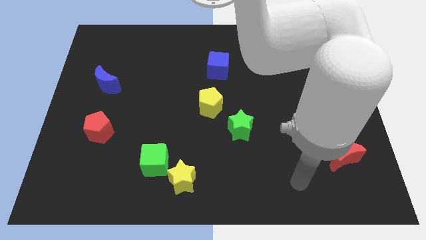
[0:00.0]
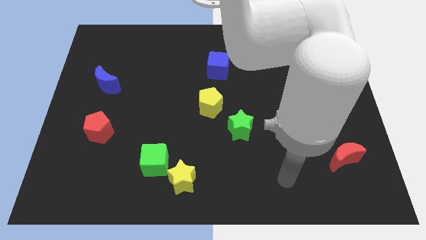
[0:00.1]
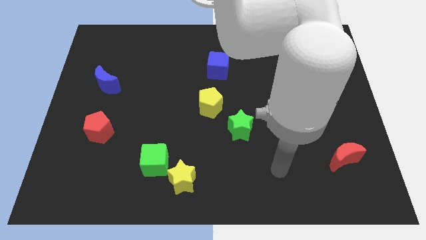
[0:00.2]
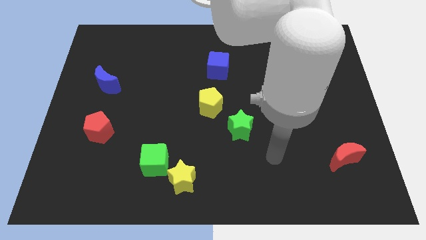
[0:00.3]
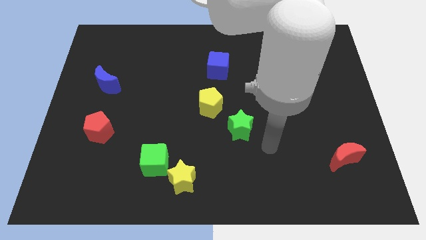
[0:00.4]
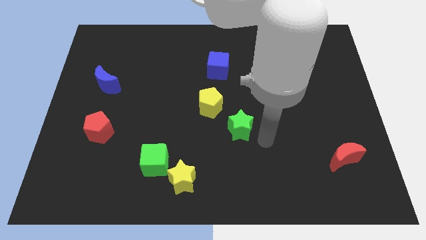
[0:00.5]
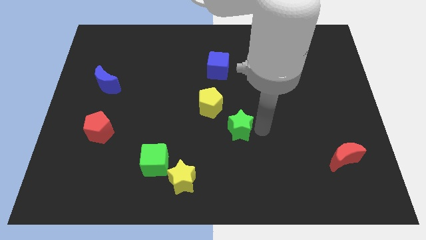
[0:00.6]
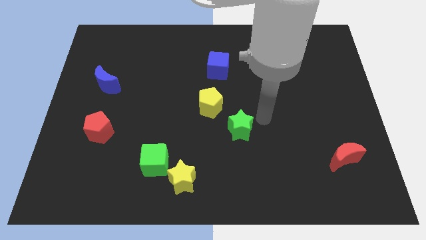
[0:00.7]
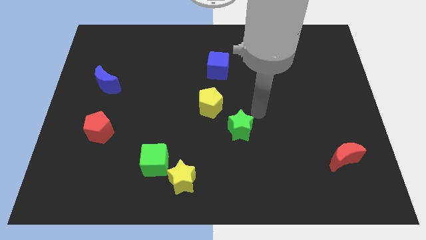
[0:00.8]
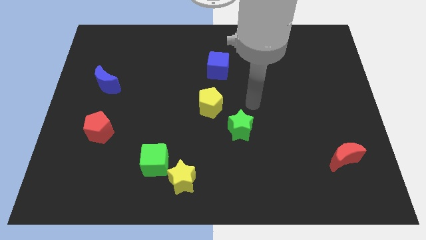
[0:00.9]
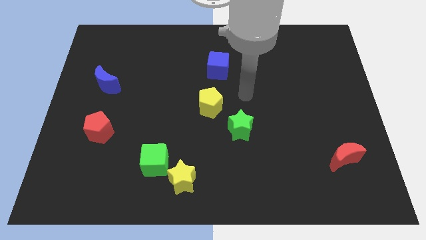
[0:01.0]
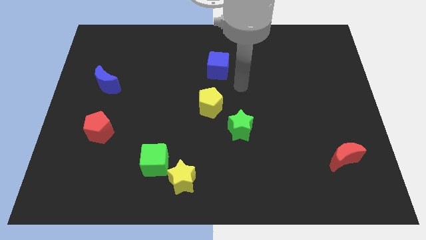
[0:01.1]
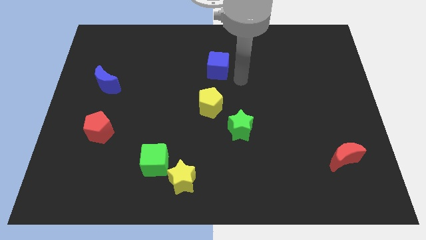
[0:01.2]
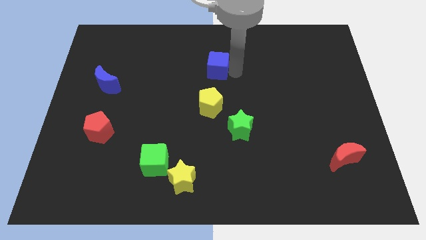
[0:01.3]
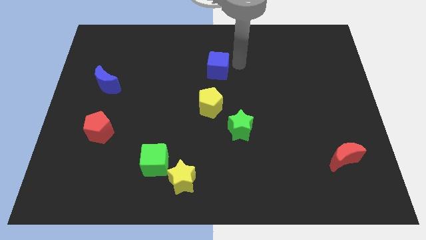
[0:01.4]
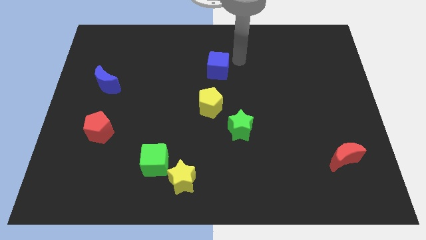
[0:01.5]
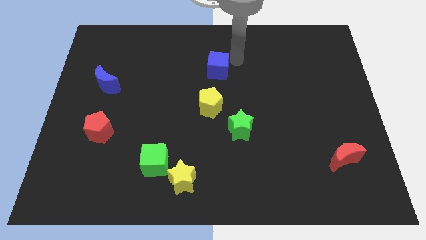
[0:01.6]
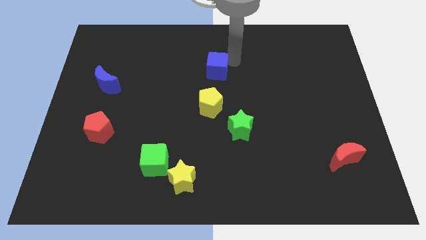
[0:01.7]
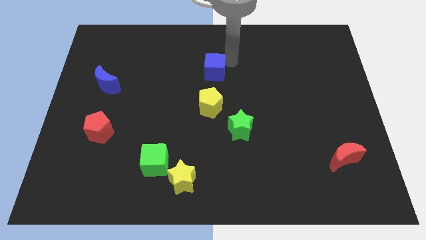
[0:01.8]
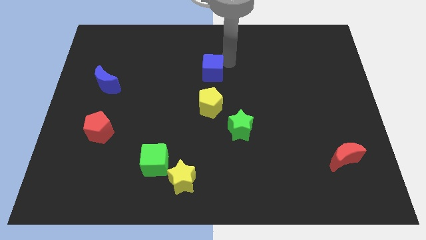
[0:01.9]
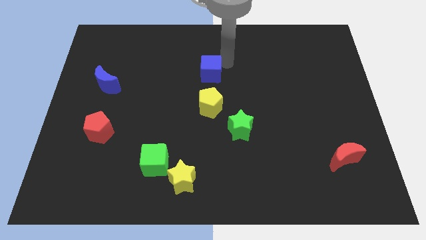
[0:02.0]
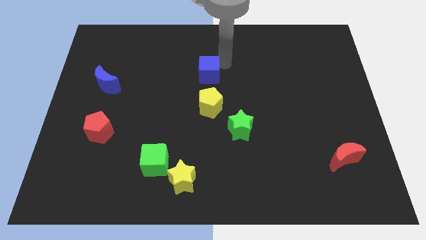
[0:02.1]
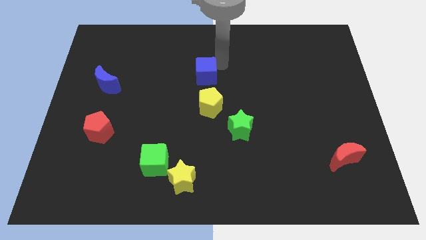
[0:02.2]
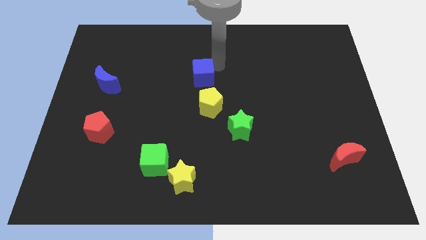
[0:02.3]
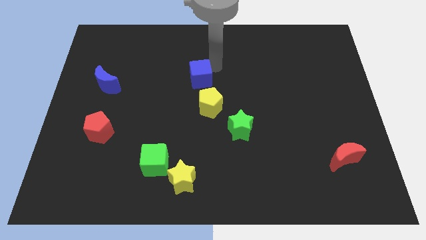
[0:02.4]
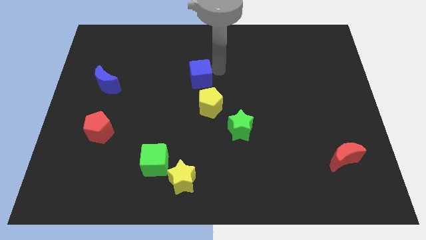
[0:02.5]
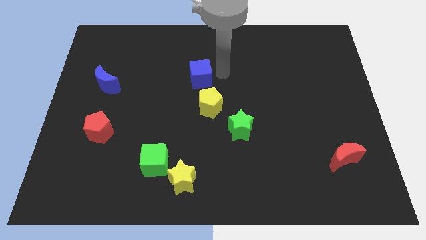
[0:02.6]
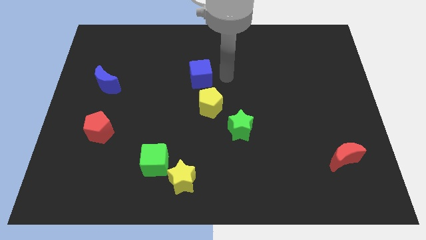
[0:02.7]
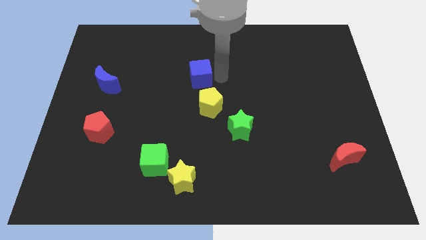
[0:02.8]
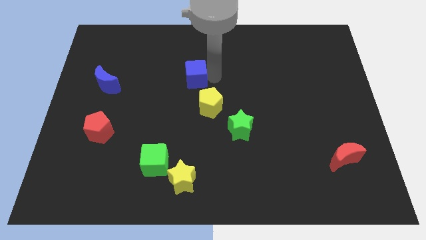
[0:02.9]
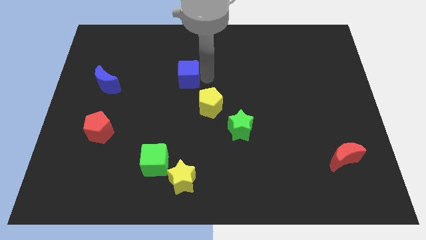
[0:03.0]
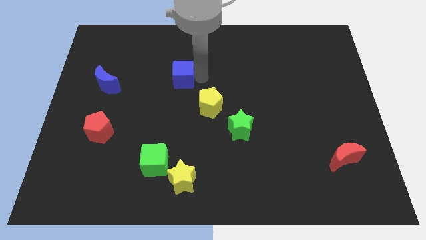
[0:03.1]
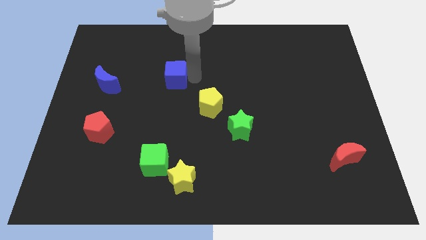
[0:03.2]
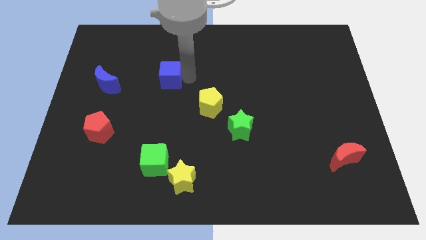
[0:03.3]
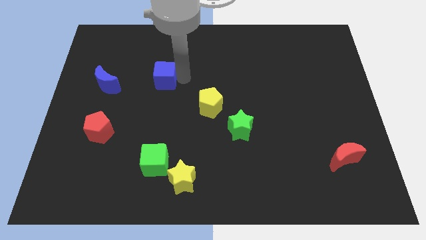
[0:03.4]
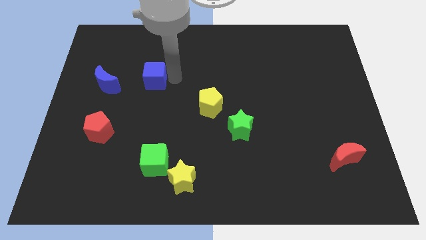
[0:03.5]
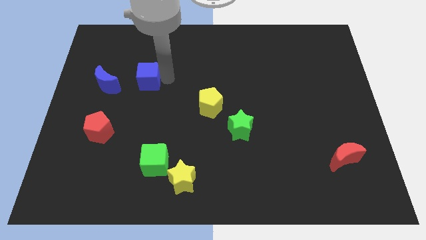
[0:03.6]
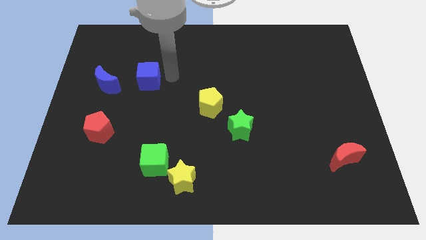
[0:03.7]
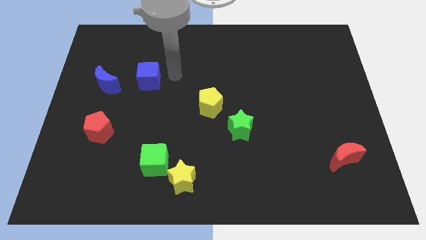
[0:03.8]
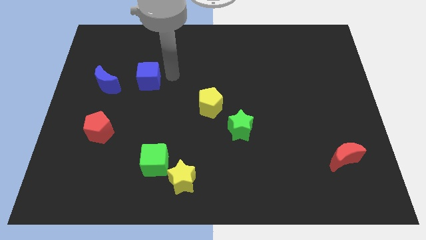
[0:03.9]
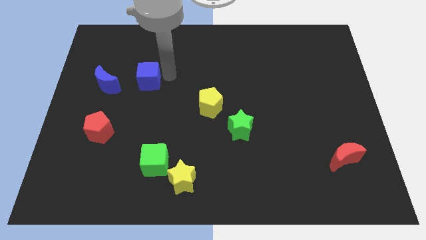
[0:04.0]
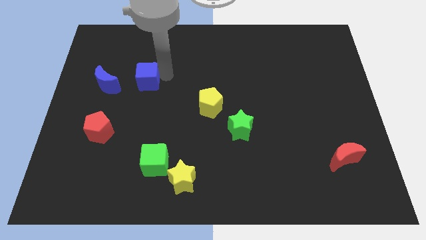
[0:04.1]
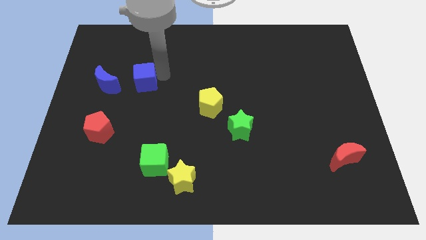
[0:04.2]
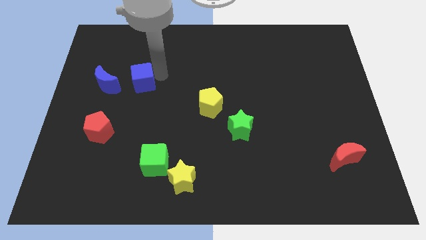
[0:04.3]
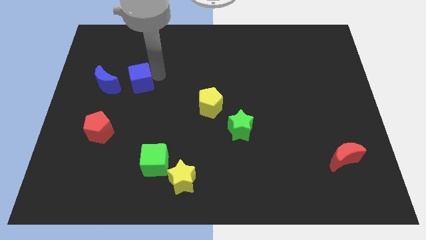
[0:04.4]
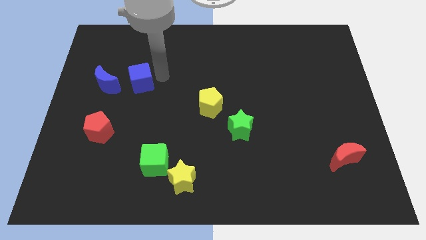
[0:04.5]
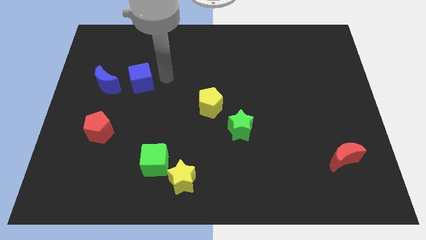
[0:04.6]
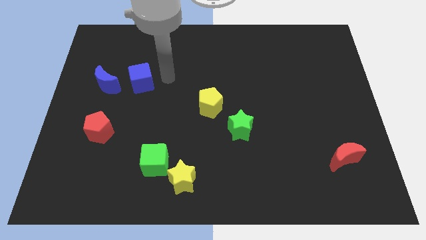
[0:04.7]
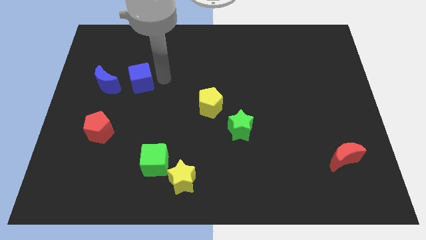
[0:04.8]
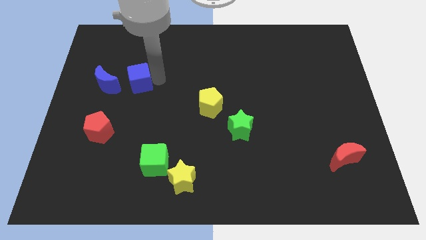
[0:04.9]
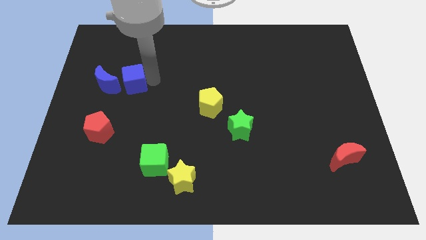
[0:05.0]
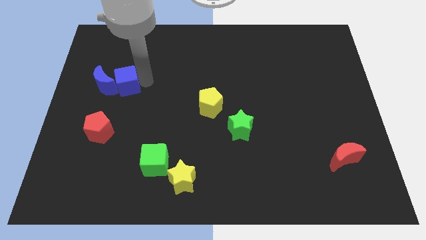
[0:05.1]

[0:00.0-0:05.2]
put the blue cube towards the blue moon

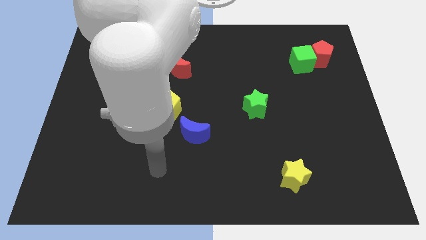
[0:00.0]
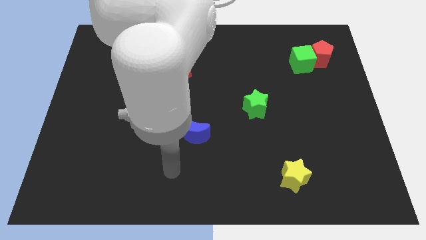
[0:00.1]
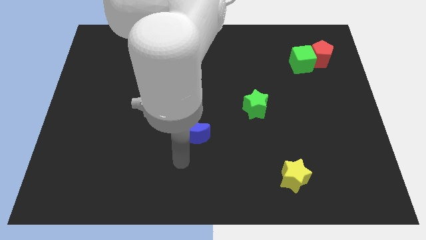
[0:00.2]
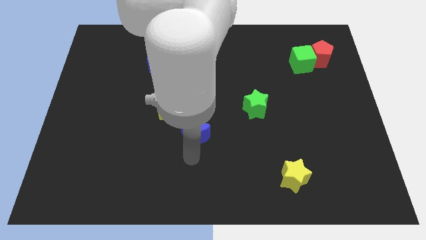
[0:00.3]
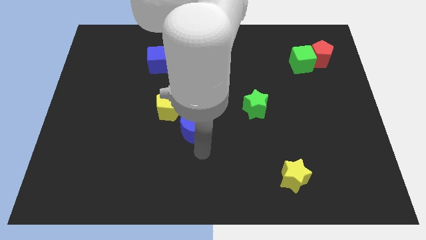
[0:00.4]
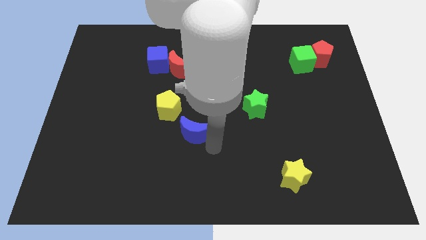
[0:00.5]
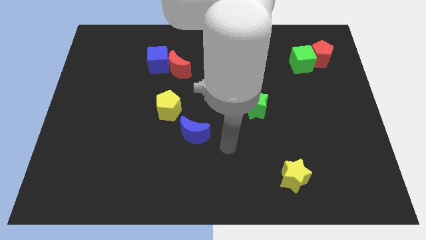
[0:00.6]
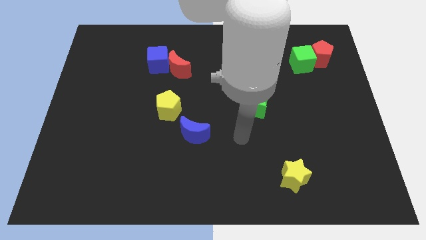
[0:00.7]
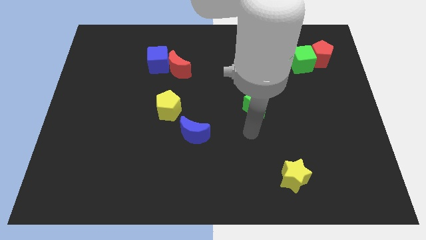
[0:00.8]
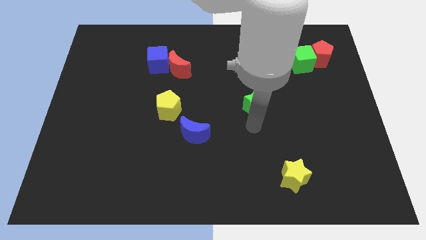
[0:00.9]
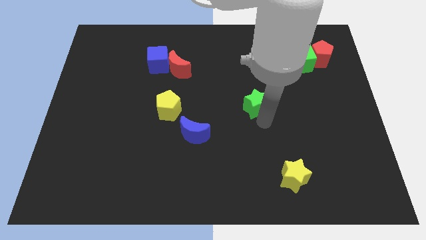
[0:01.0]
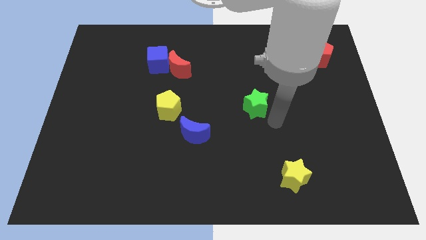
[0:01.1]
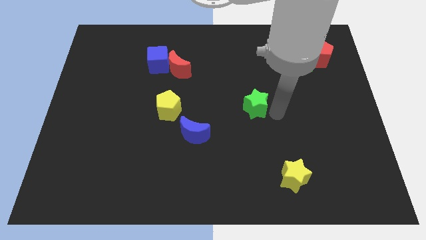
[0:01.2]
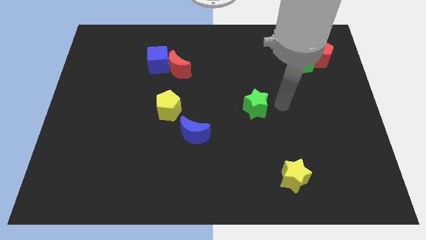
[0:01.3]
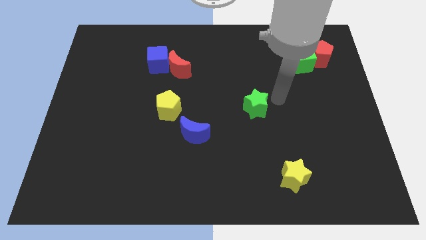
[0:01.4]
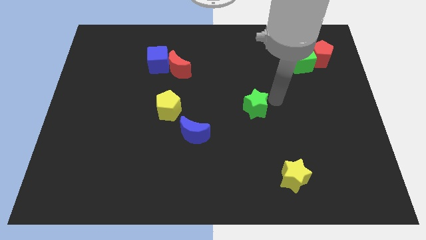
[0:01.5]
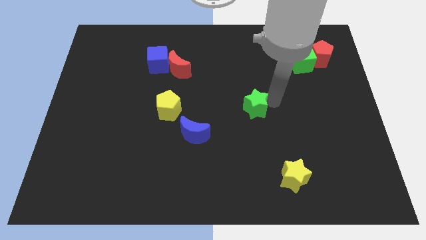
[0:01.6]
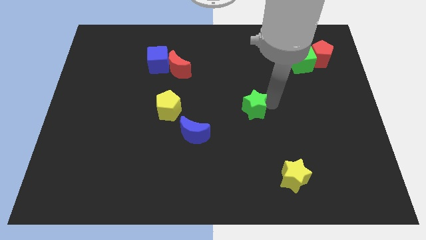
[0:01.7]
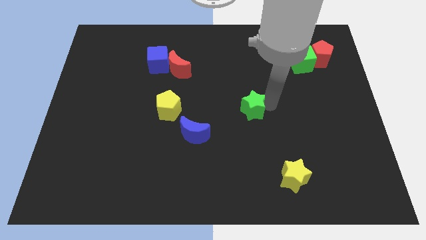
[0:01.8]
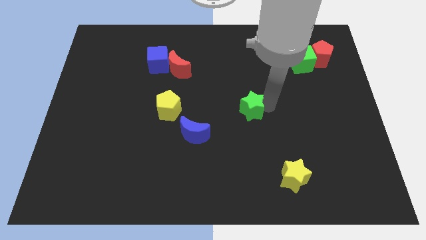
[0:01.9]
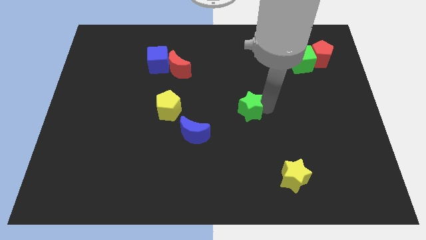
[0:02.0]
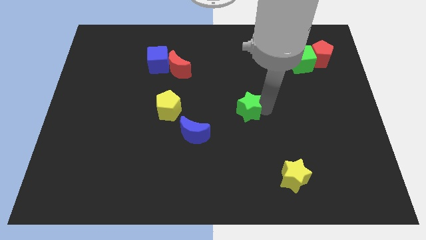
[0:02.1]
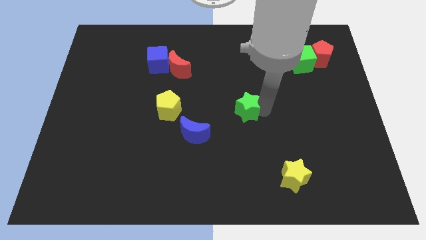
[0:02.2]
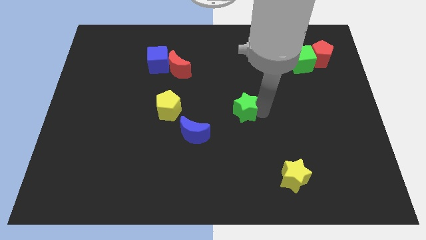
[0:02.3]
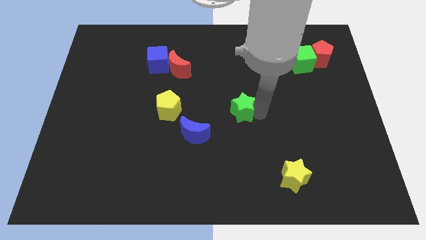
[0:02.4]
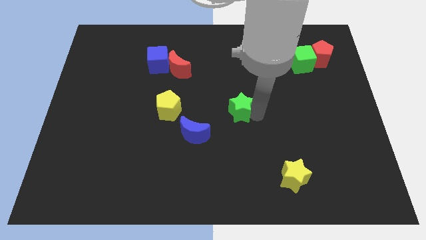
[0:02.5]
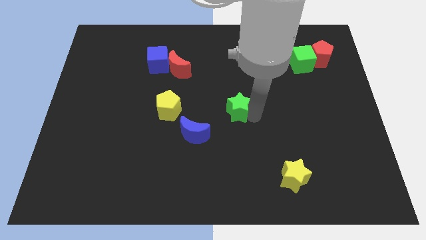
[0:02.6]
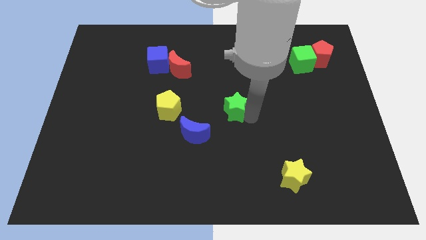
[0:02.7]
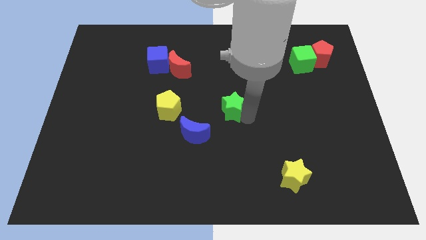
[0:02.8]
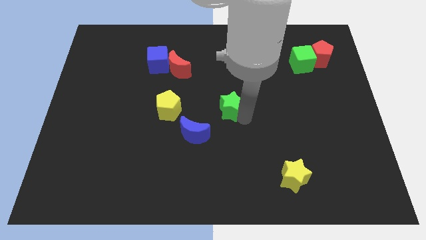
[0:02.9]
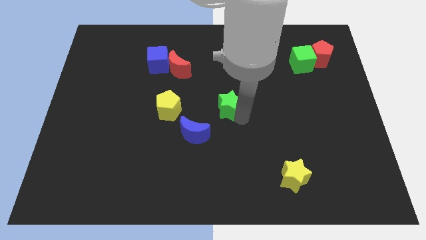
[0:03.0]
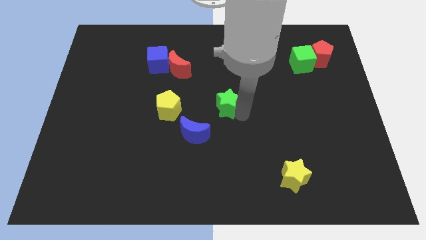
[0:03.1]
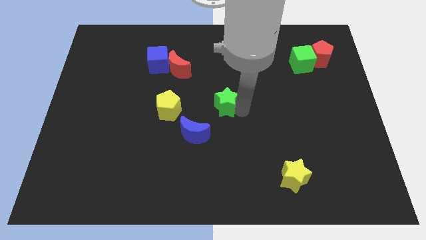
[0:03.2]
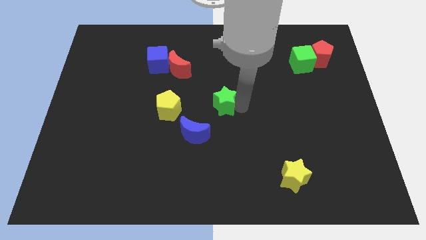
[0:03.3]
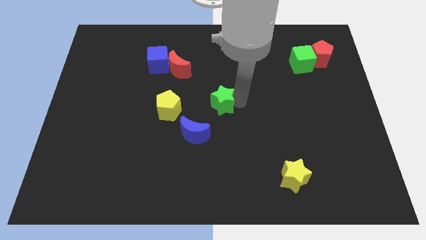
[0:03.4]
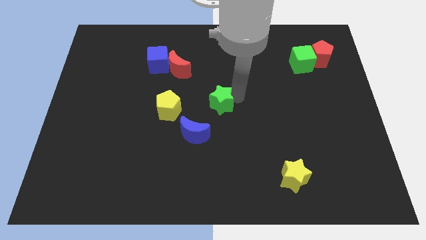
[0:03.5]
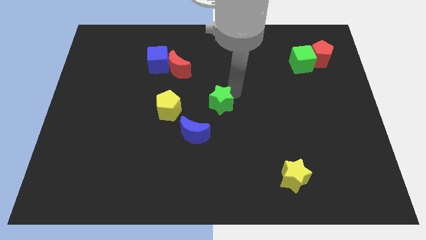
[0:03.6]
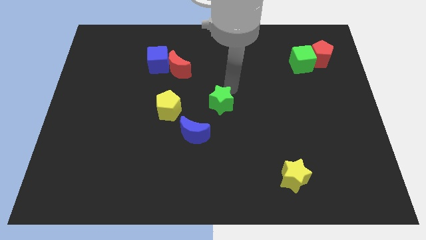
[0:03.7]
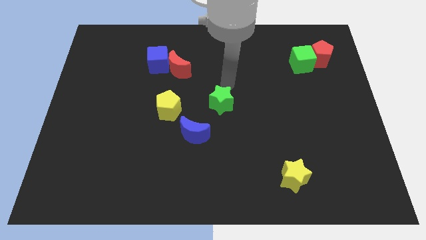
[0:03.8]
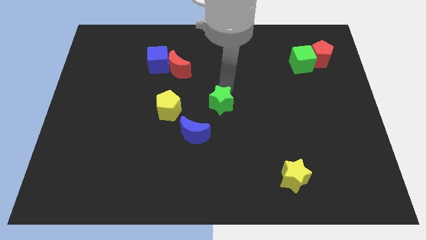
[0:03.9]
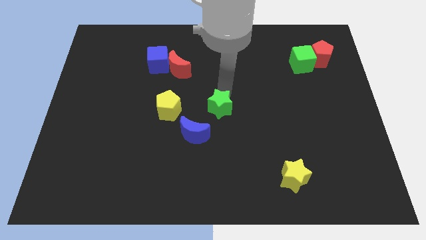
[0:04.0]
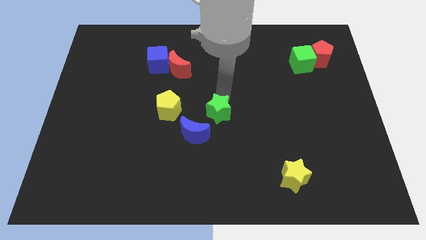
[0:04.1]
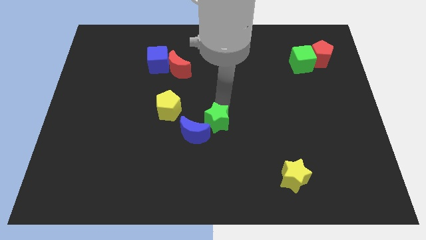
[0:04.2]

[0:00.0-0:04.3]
slide the green star close to the blue moon
